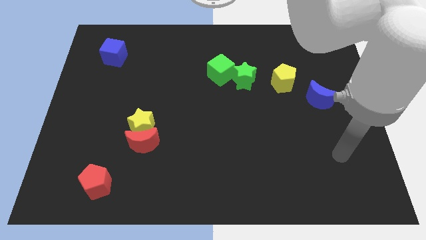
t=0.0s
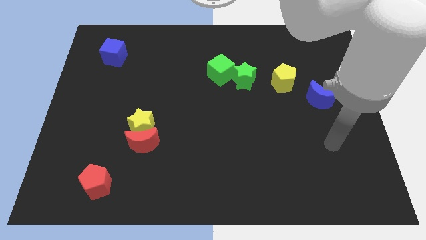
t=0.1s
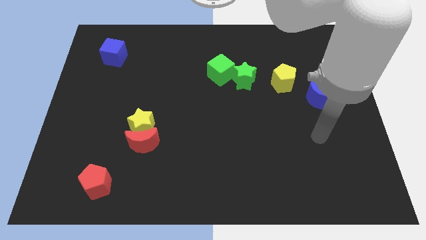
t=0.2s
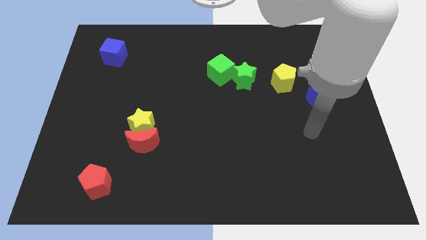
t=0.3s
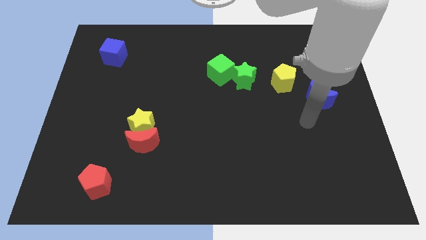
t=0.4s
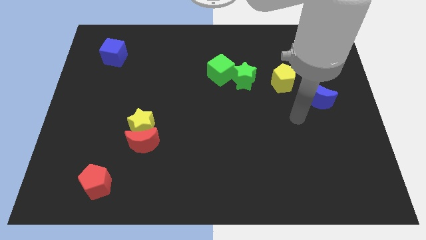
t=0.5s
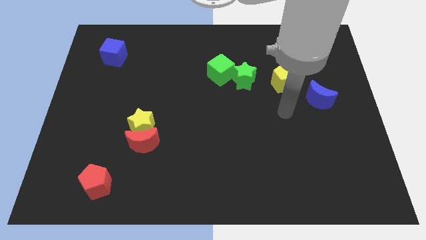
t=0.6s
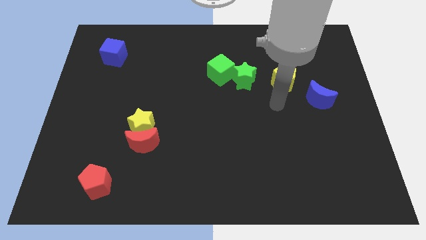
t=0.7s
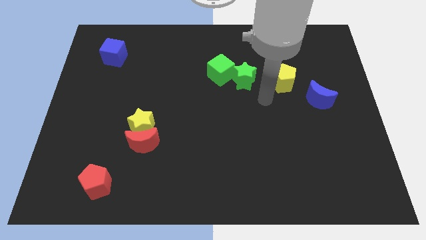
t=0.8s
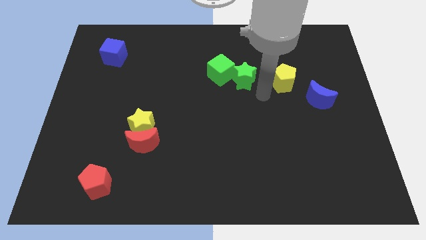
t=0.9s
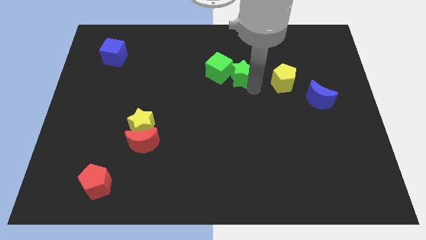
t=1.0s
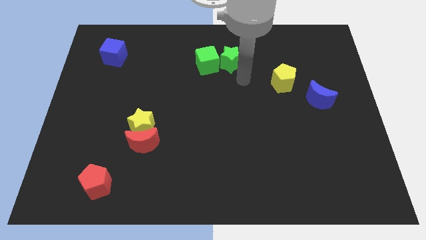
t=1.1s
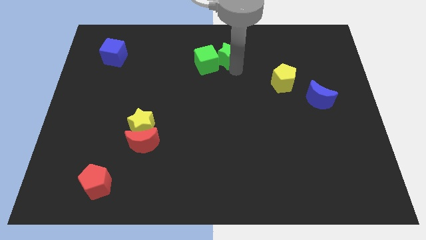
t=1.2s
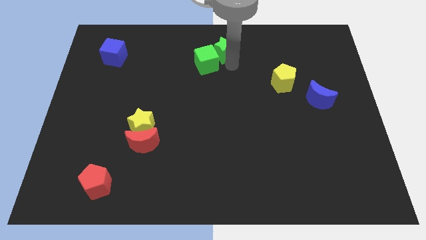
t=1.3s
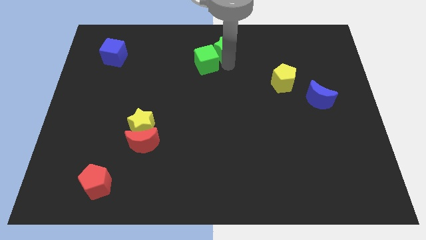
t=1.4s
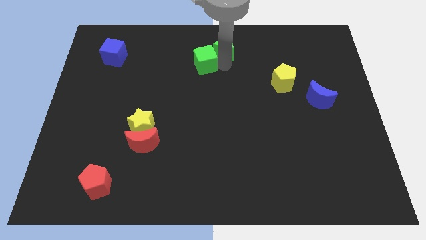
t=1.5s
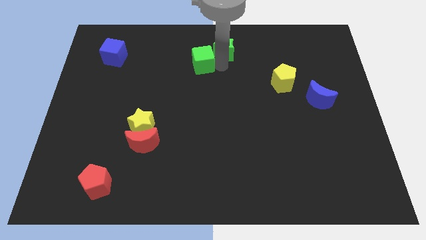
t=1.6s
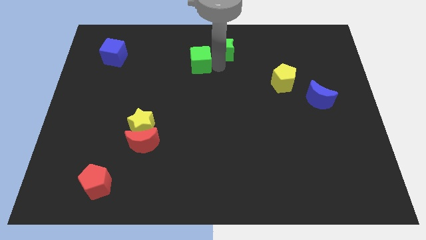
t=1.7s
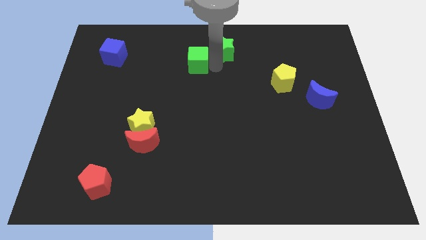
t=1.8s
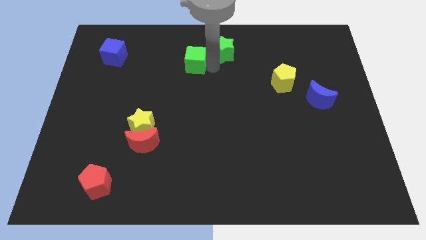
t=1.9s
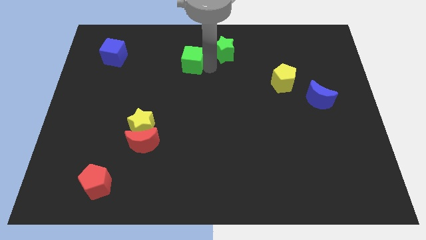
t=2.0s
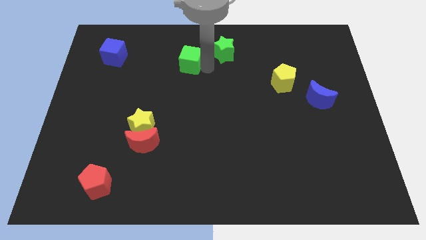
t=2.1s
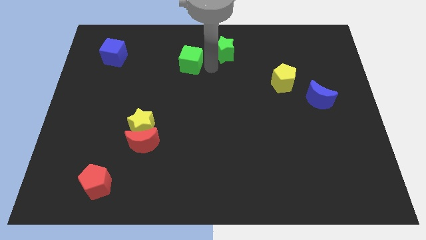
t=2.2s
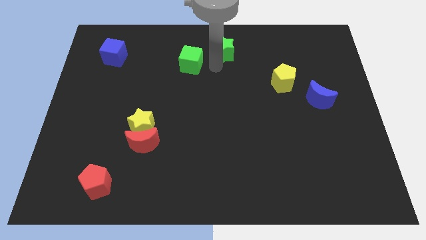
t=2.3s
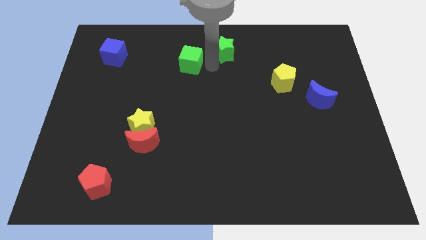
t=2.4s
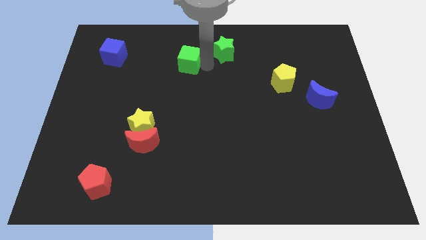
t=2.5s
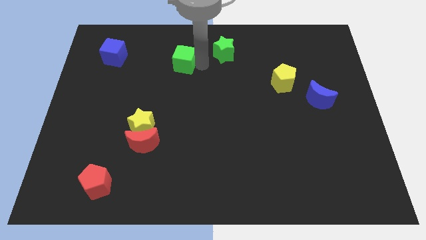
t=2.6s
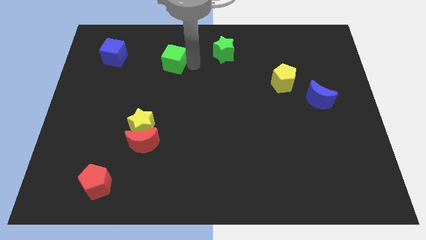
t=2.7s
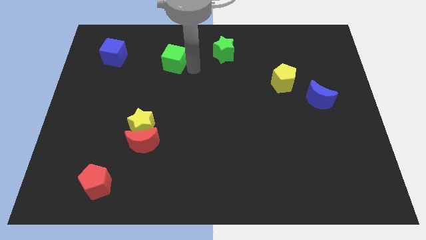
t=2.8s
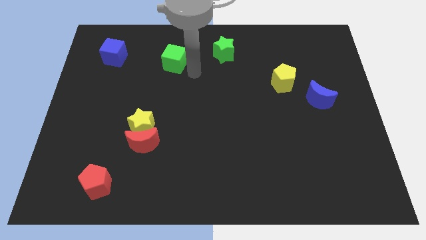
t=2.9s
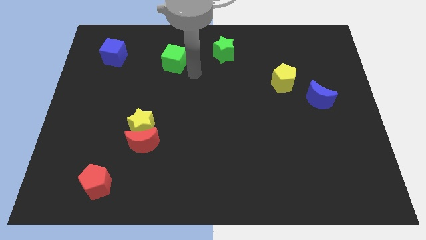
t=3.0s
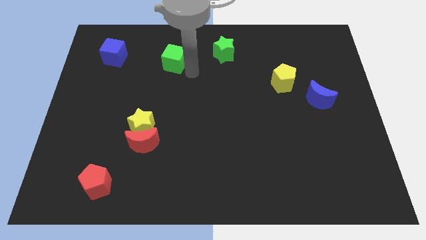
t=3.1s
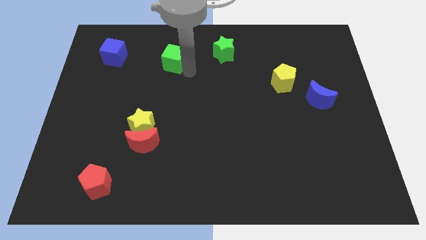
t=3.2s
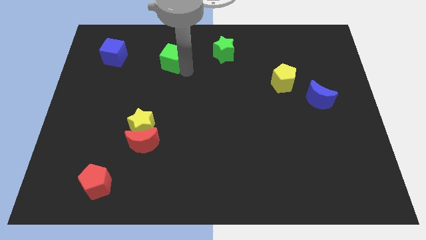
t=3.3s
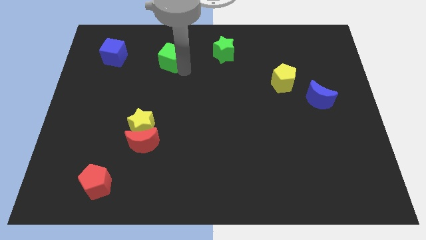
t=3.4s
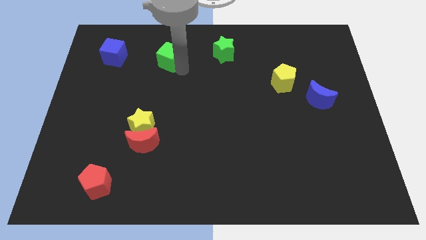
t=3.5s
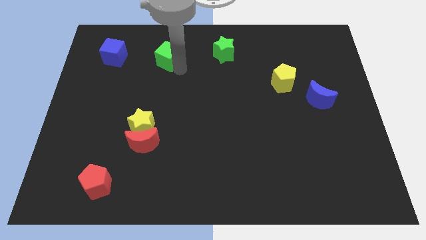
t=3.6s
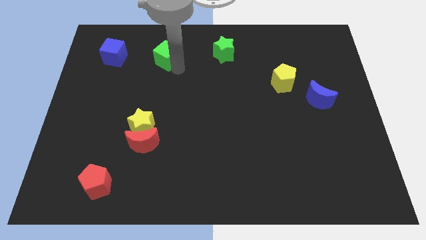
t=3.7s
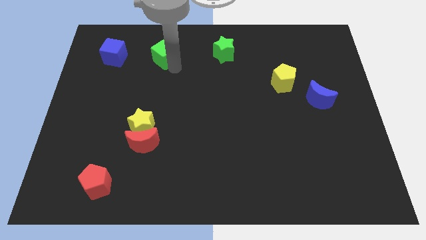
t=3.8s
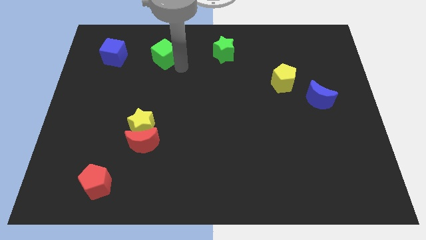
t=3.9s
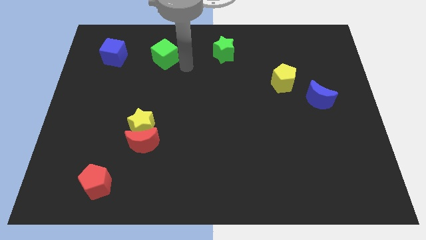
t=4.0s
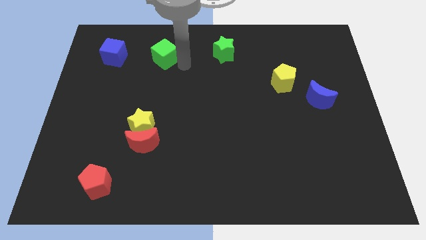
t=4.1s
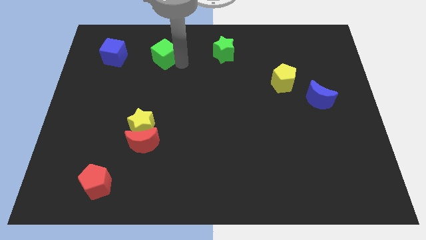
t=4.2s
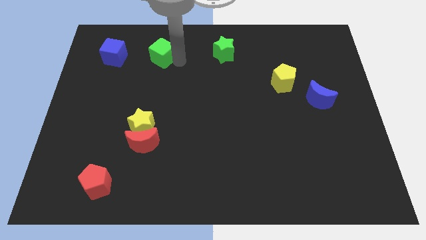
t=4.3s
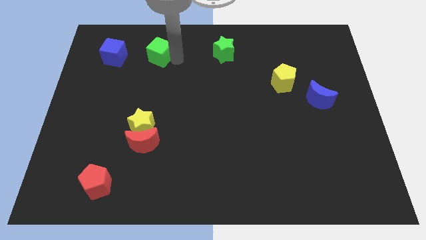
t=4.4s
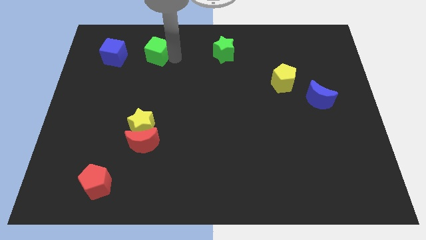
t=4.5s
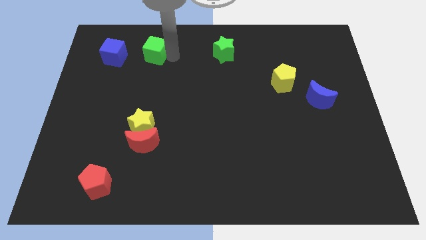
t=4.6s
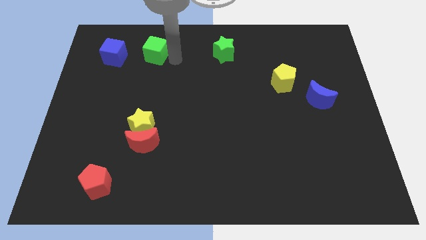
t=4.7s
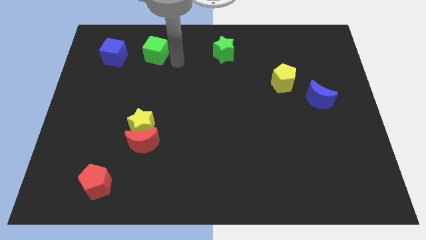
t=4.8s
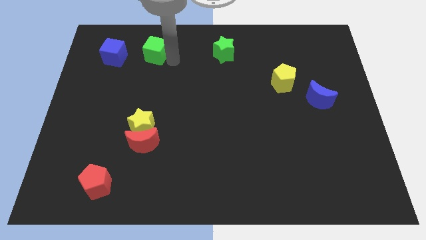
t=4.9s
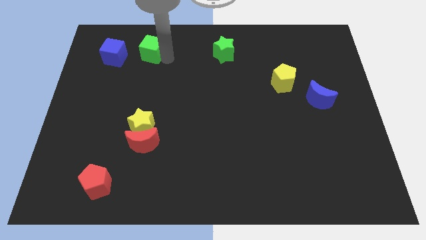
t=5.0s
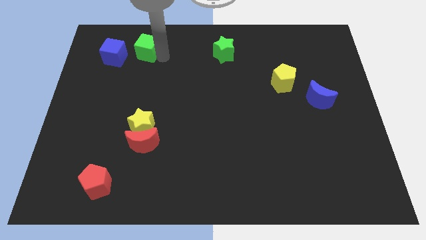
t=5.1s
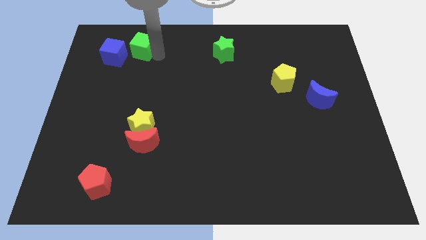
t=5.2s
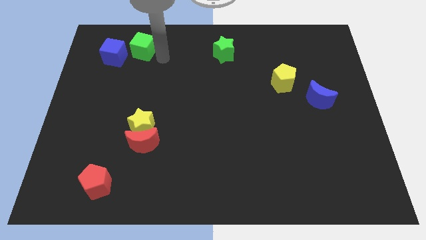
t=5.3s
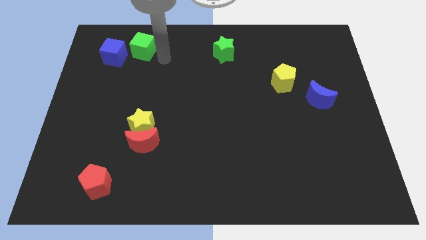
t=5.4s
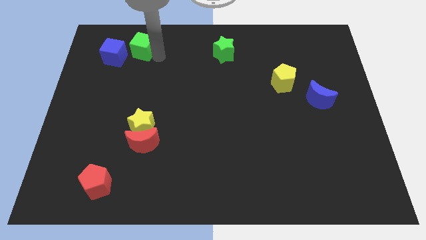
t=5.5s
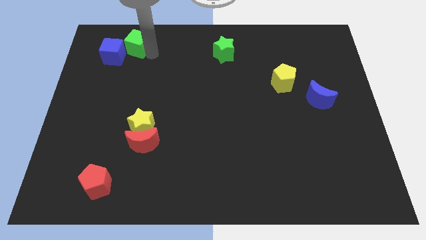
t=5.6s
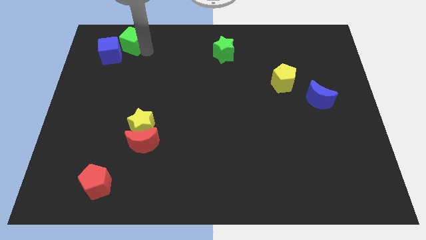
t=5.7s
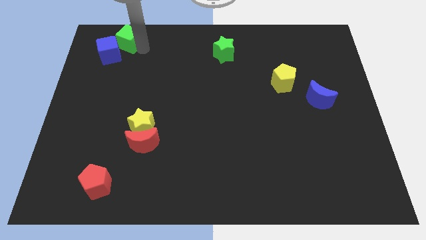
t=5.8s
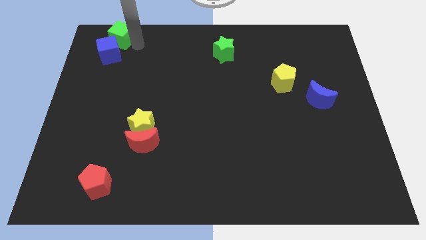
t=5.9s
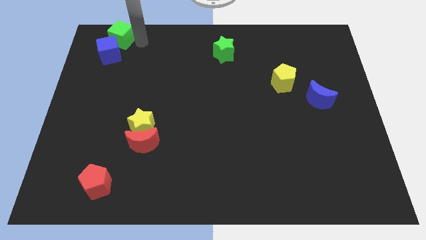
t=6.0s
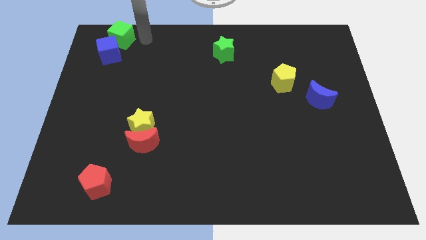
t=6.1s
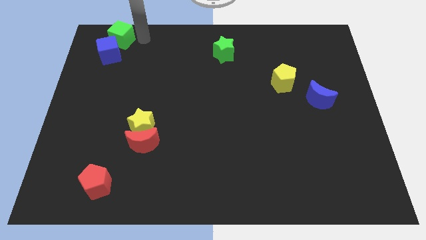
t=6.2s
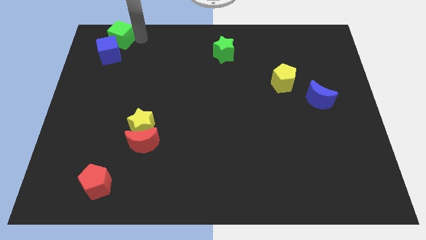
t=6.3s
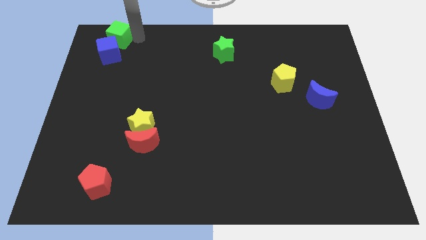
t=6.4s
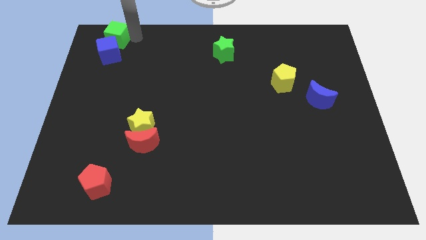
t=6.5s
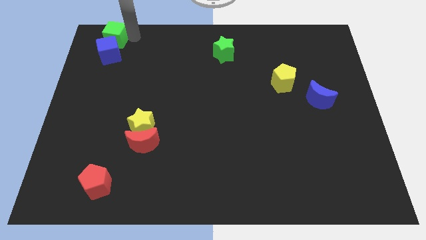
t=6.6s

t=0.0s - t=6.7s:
put the green cube to the upper left corner
